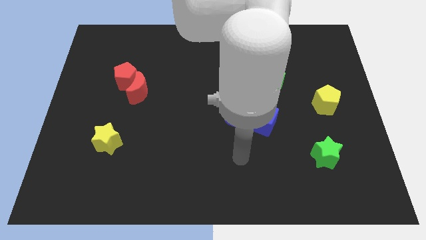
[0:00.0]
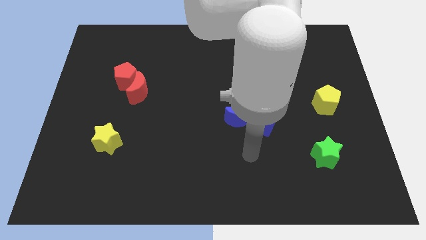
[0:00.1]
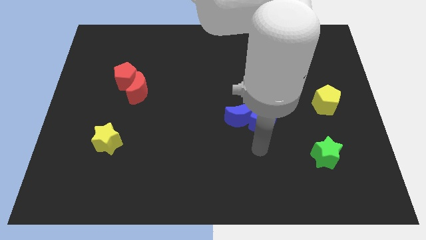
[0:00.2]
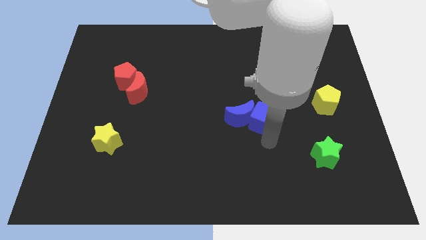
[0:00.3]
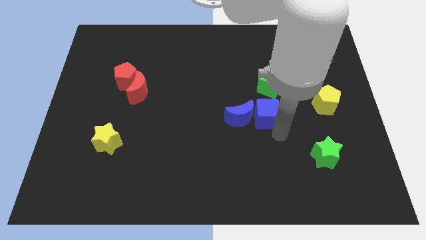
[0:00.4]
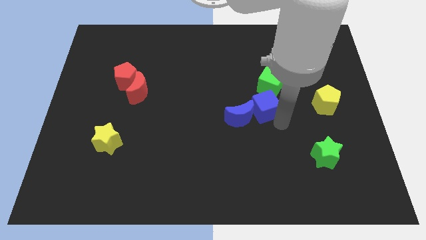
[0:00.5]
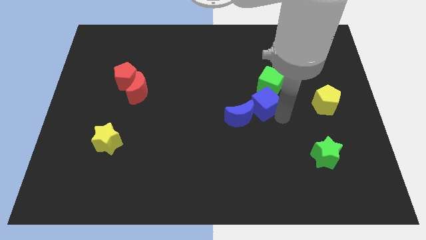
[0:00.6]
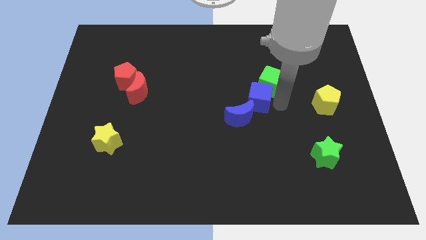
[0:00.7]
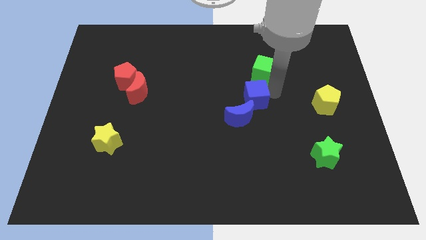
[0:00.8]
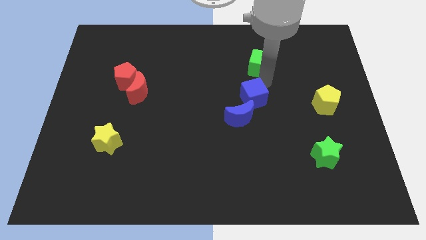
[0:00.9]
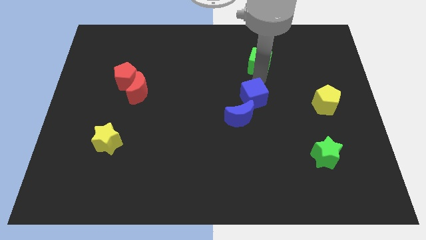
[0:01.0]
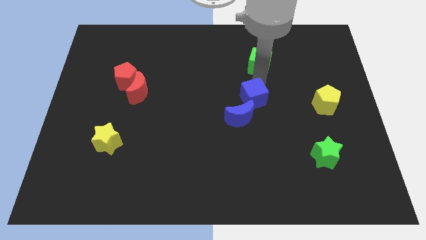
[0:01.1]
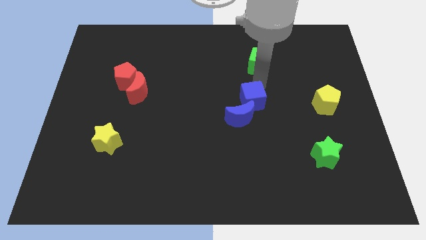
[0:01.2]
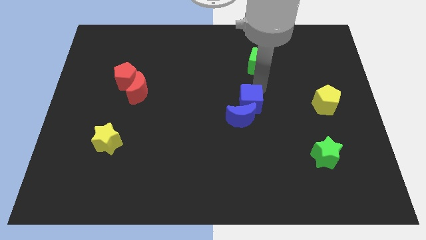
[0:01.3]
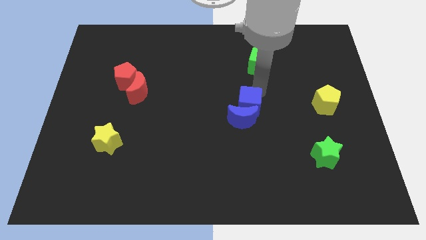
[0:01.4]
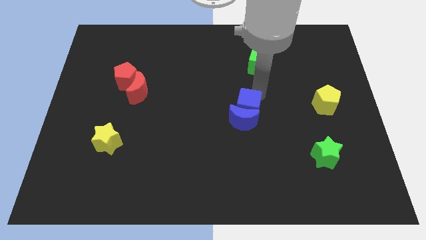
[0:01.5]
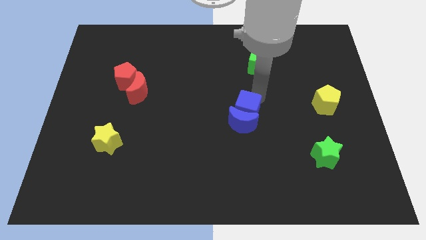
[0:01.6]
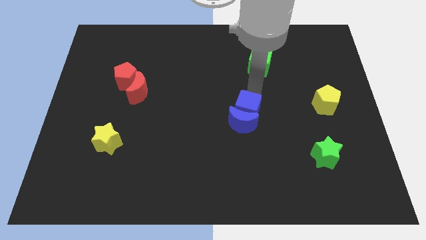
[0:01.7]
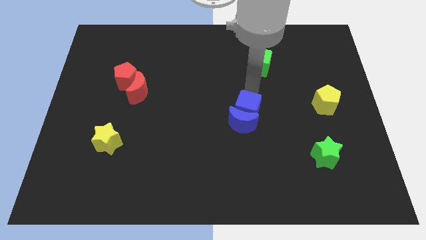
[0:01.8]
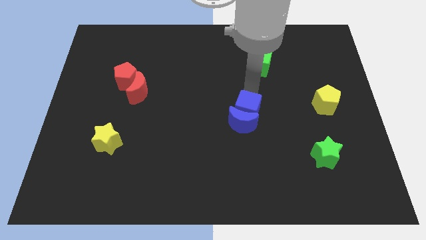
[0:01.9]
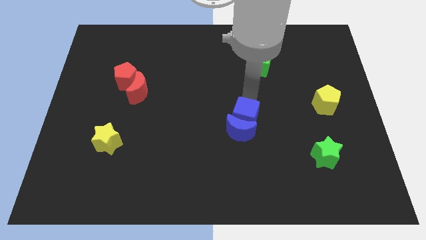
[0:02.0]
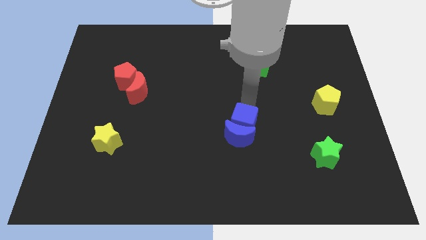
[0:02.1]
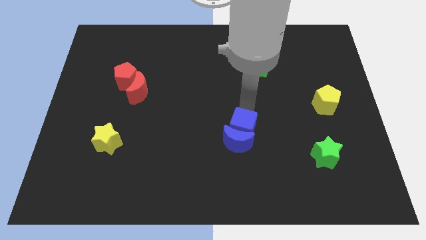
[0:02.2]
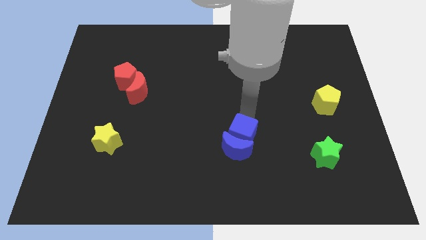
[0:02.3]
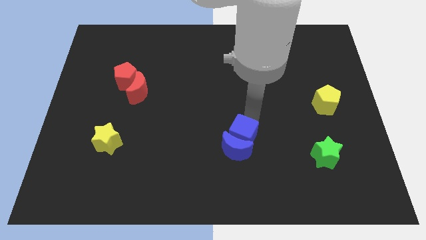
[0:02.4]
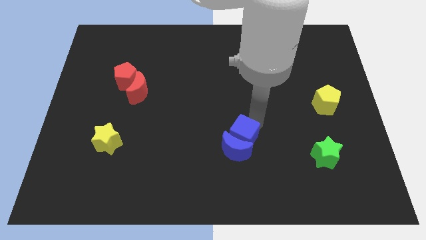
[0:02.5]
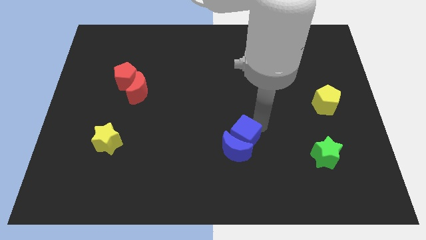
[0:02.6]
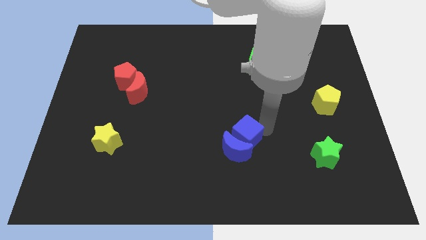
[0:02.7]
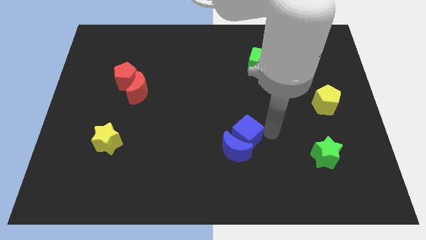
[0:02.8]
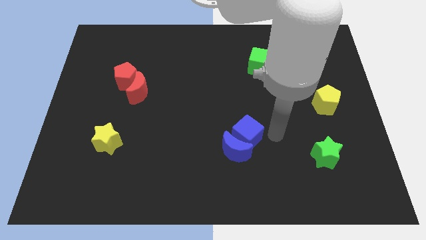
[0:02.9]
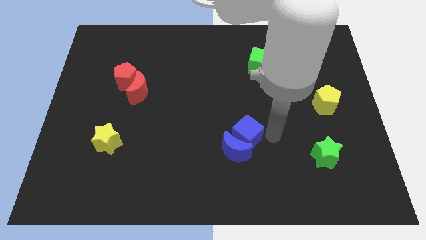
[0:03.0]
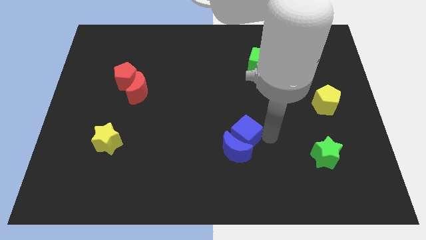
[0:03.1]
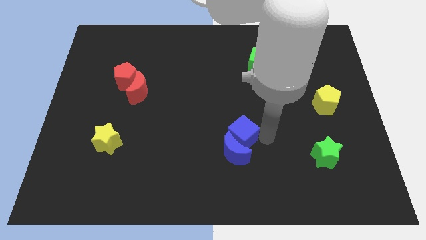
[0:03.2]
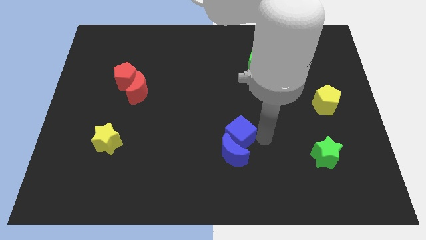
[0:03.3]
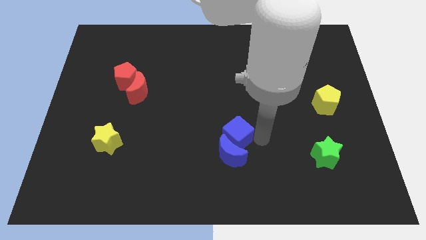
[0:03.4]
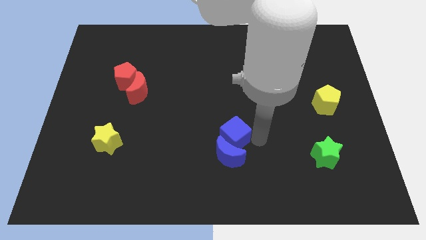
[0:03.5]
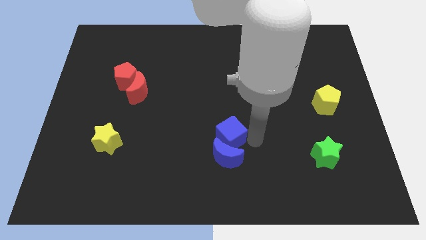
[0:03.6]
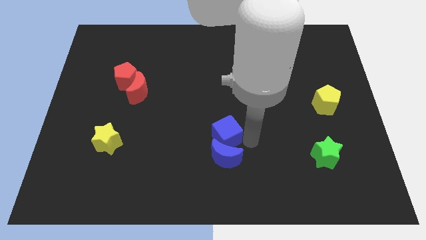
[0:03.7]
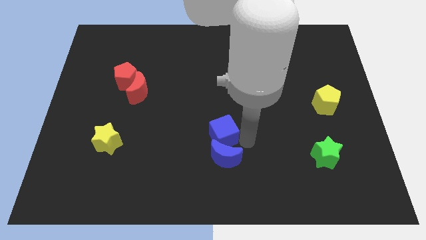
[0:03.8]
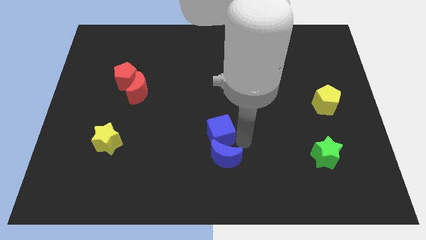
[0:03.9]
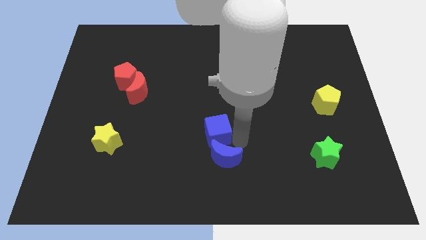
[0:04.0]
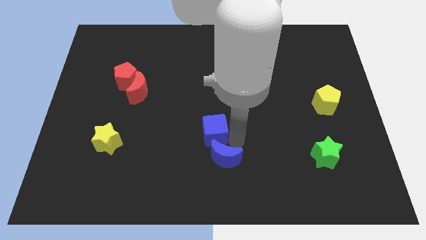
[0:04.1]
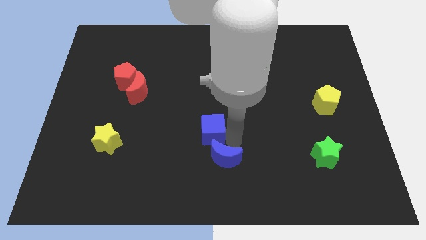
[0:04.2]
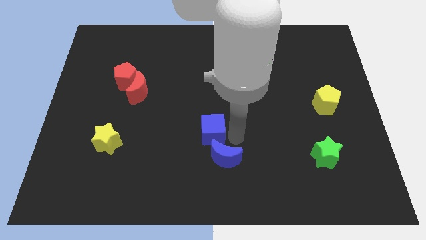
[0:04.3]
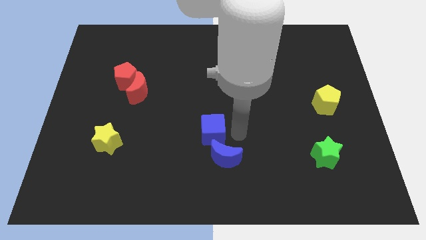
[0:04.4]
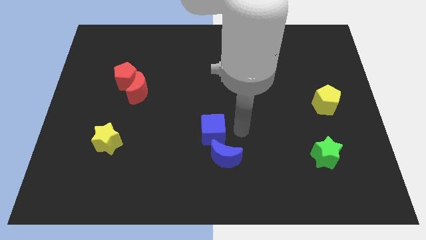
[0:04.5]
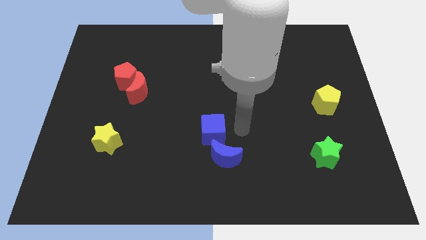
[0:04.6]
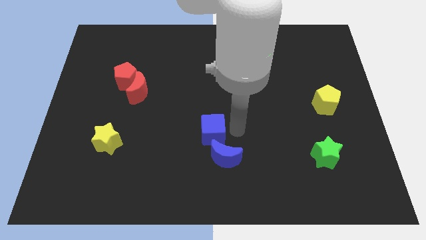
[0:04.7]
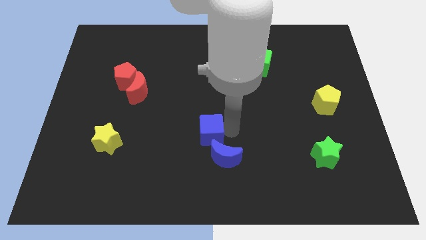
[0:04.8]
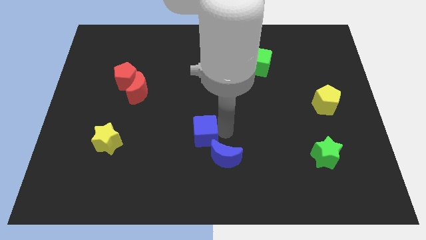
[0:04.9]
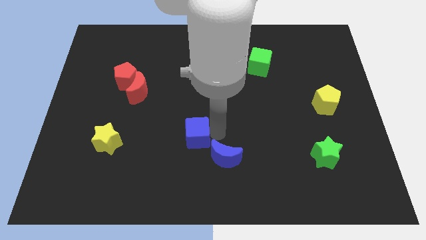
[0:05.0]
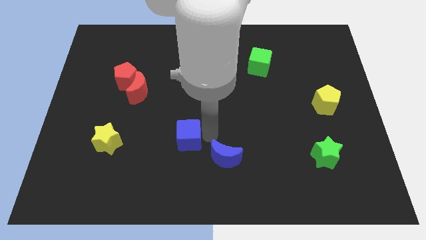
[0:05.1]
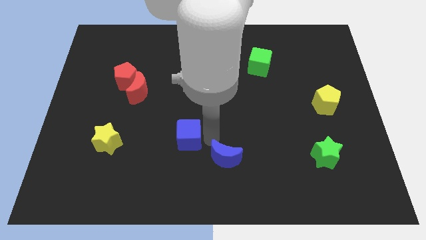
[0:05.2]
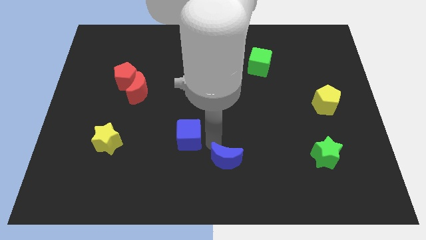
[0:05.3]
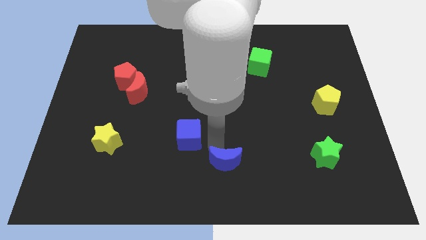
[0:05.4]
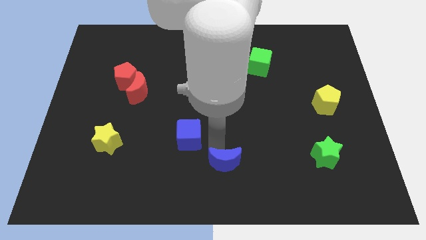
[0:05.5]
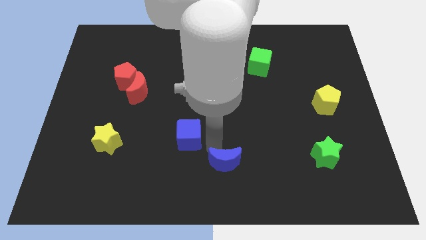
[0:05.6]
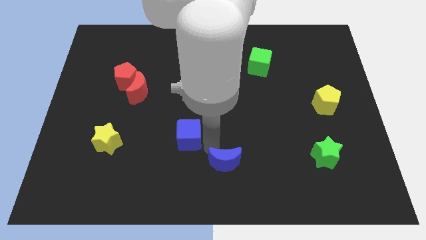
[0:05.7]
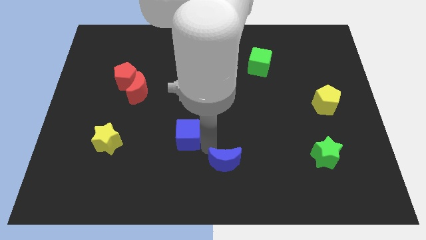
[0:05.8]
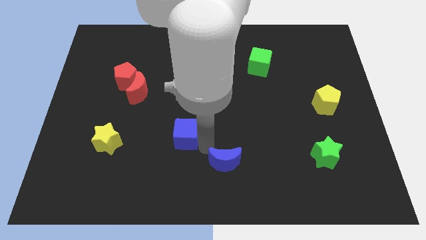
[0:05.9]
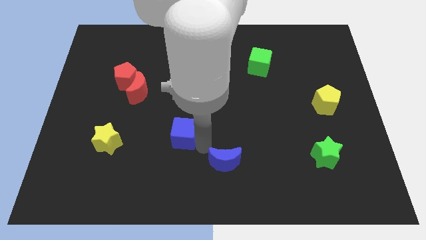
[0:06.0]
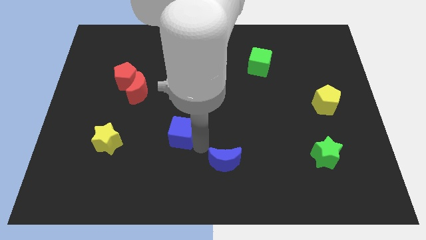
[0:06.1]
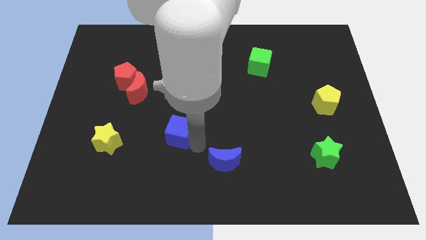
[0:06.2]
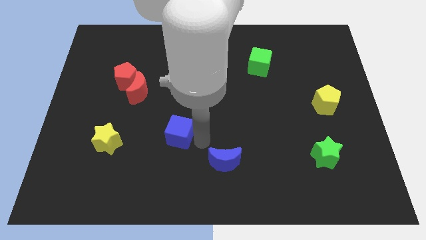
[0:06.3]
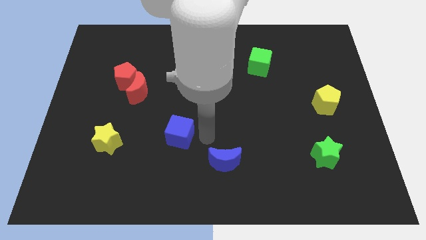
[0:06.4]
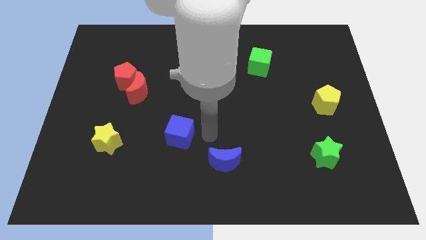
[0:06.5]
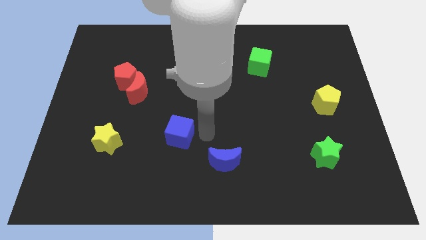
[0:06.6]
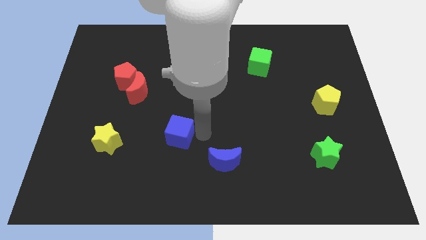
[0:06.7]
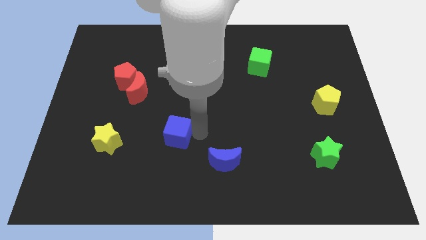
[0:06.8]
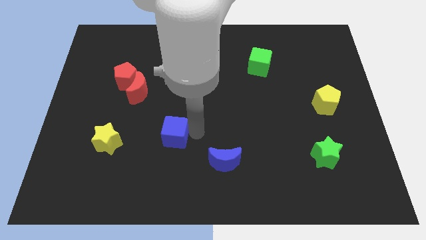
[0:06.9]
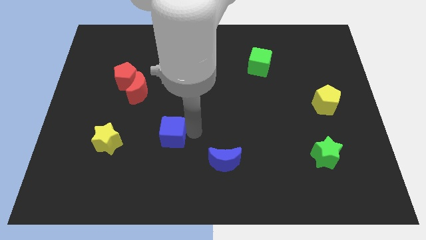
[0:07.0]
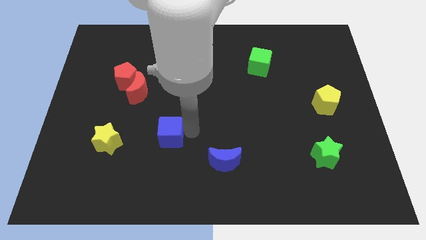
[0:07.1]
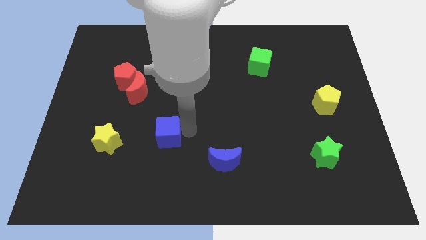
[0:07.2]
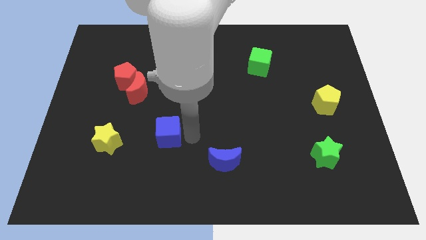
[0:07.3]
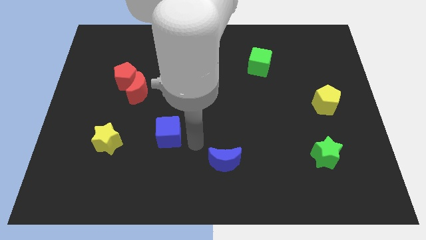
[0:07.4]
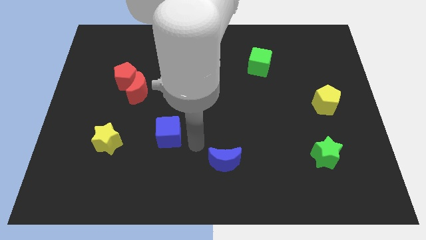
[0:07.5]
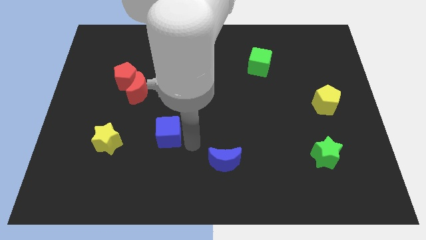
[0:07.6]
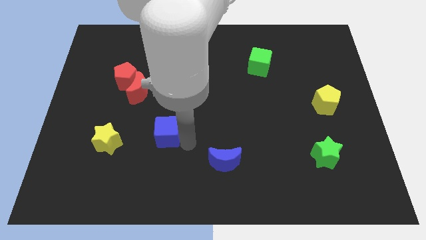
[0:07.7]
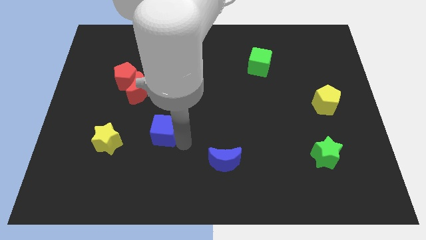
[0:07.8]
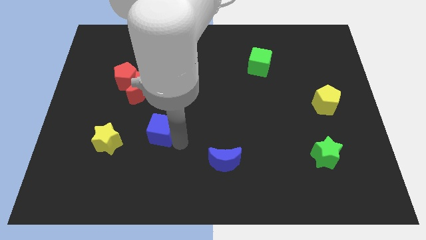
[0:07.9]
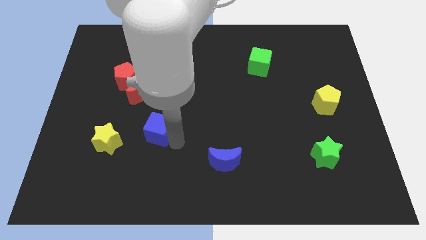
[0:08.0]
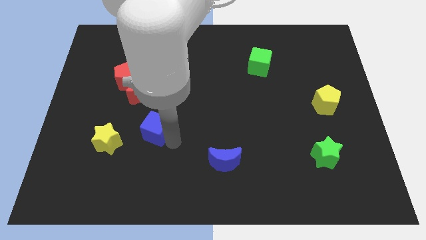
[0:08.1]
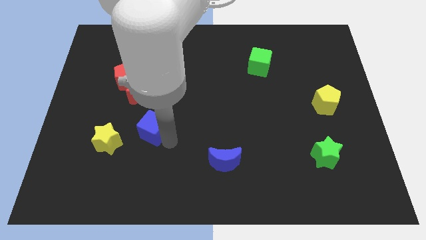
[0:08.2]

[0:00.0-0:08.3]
move the blue cube diagonally up and to the right of the yellow star
